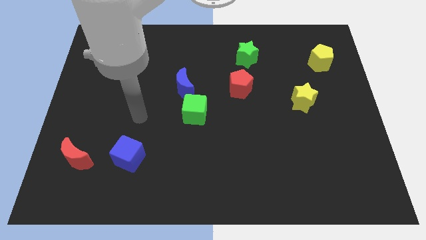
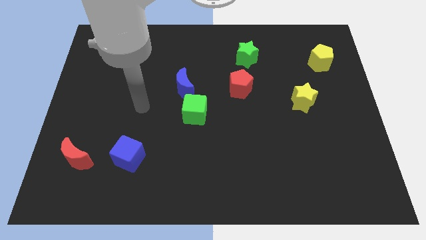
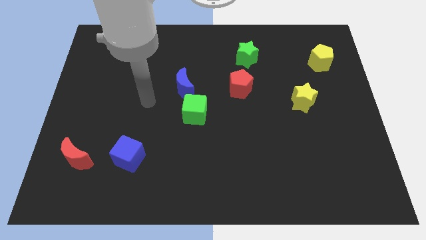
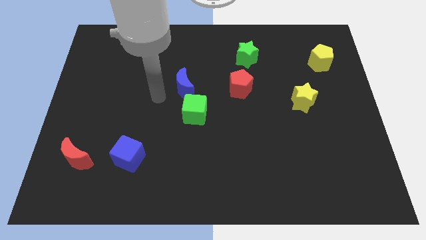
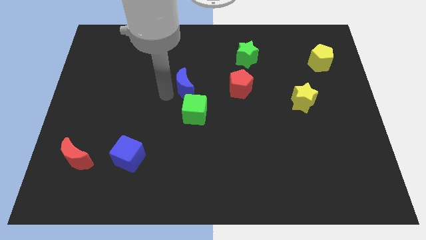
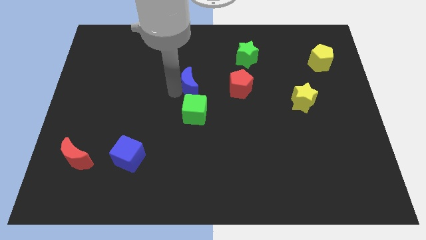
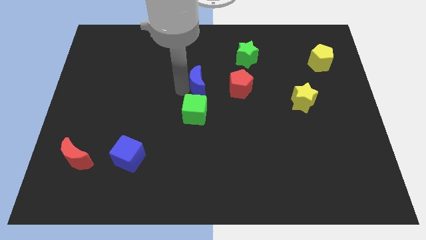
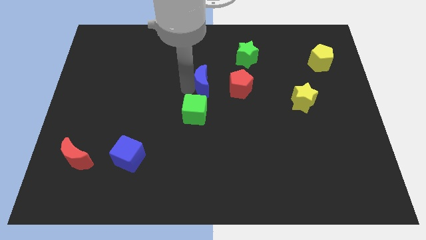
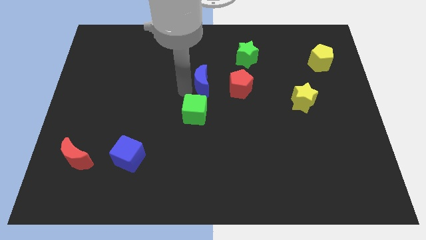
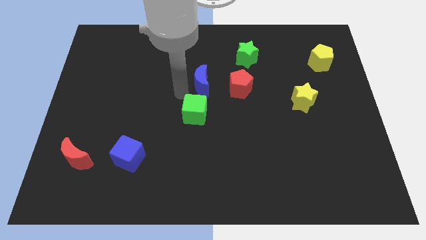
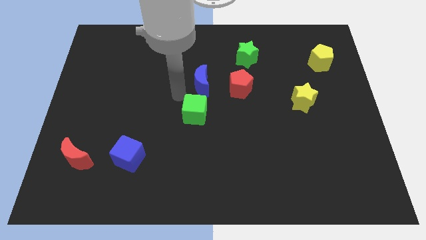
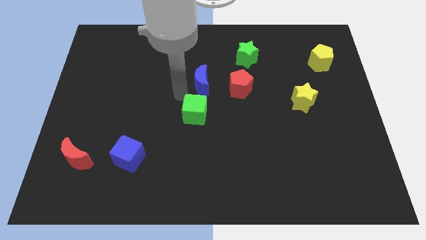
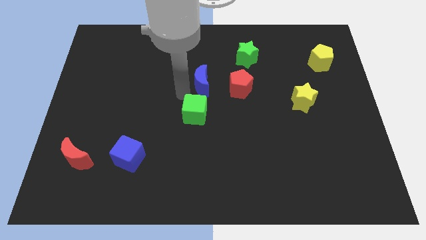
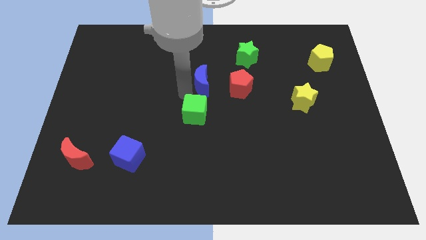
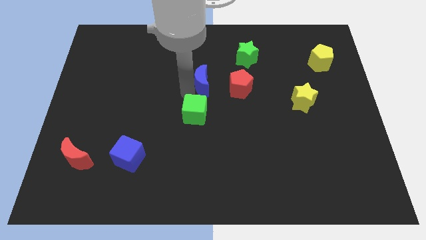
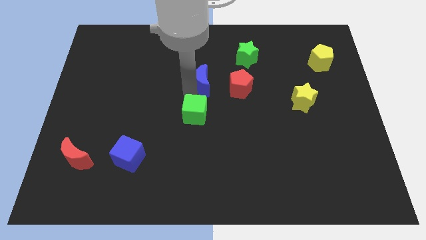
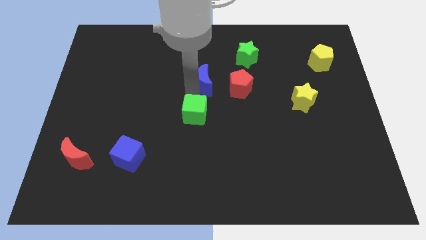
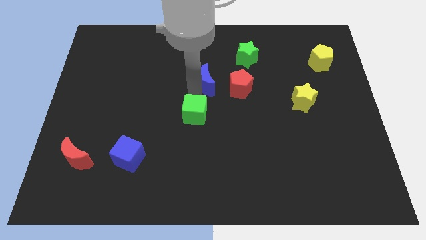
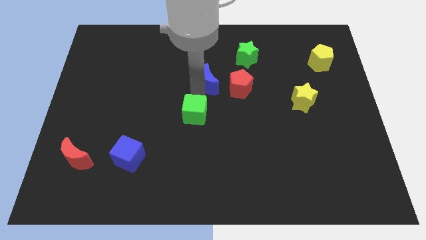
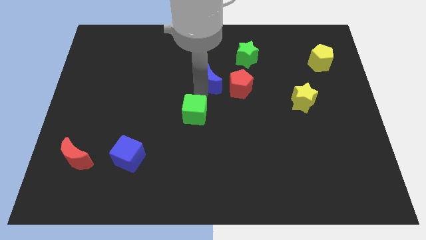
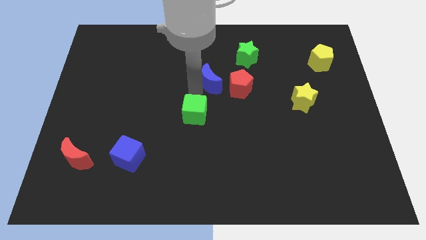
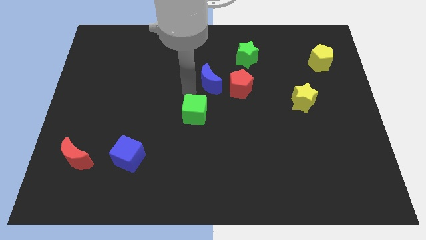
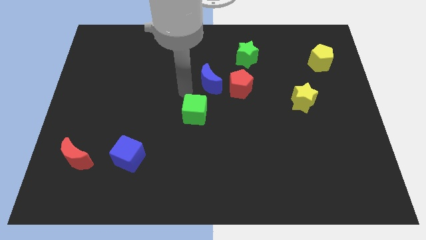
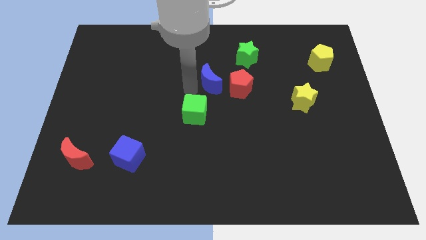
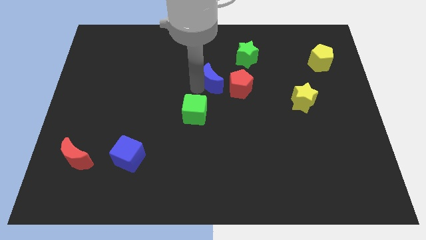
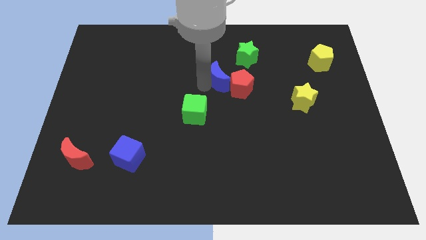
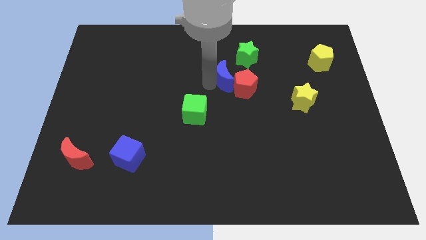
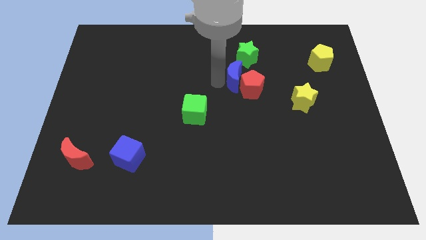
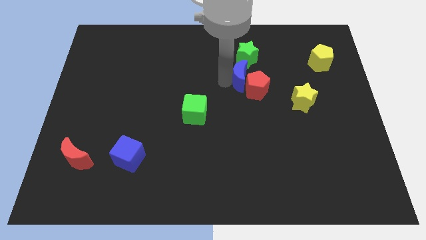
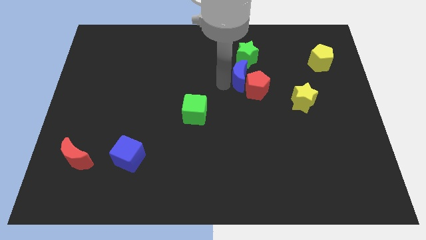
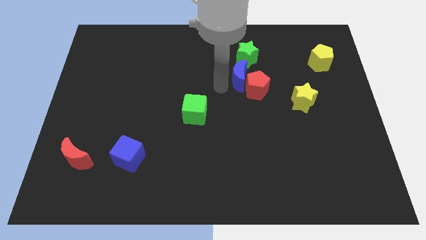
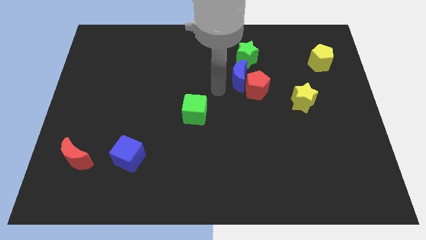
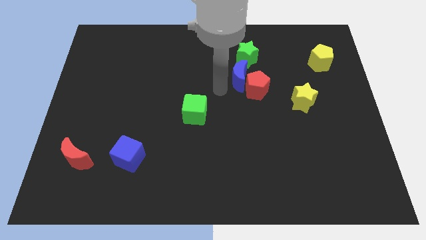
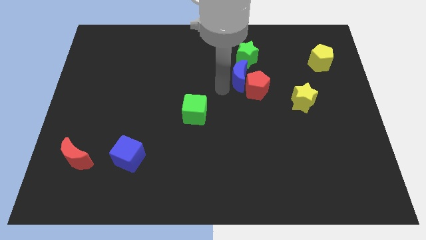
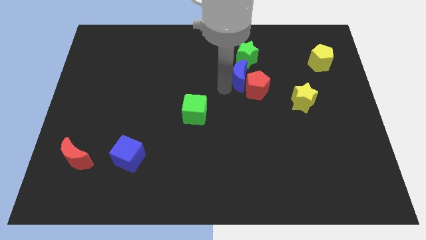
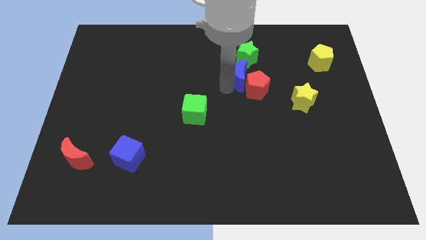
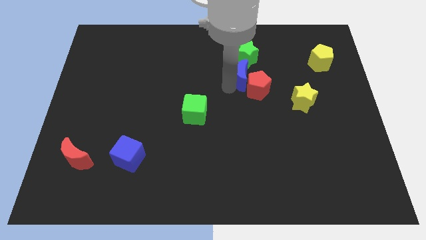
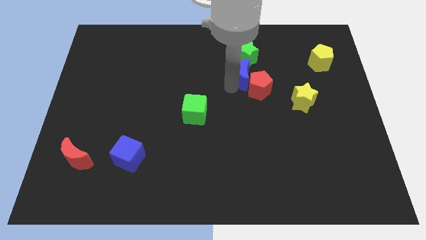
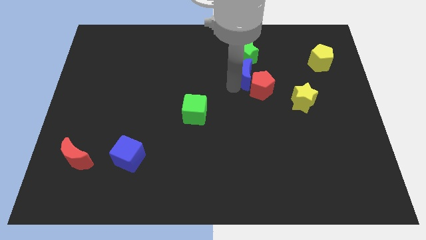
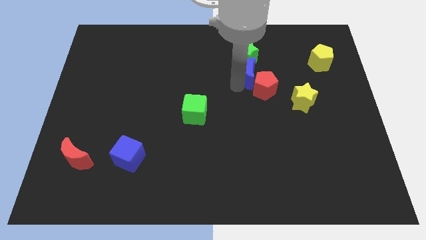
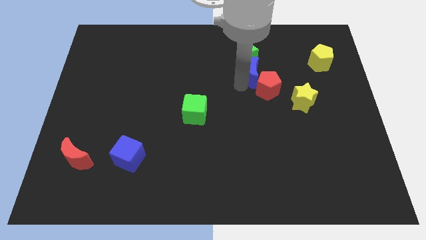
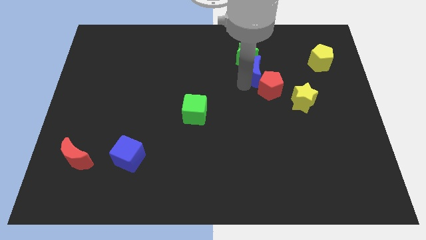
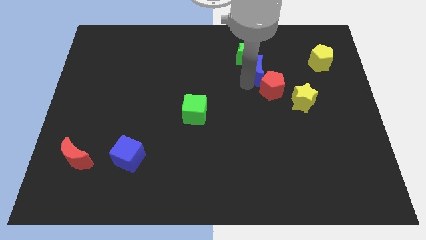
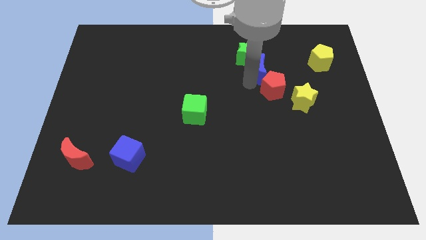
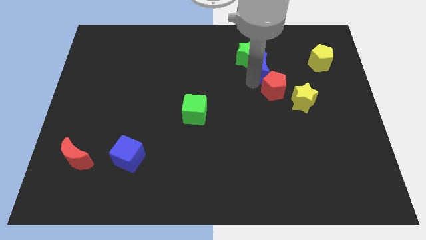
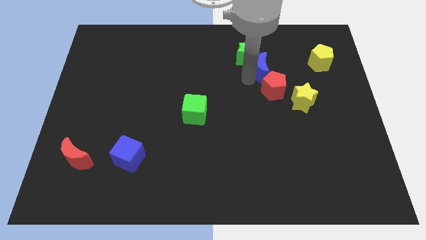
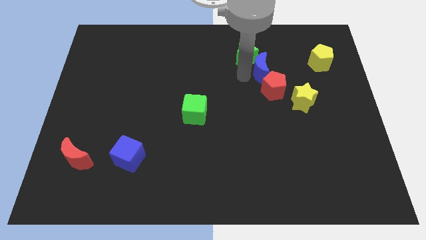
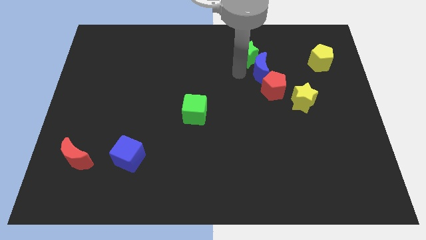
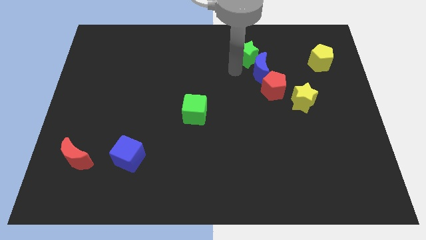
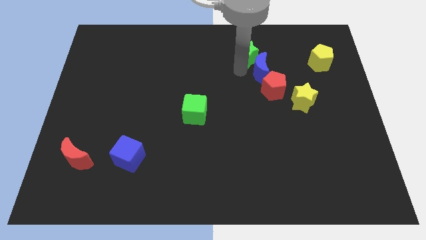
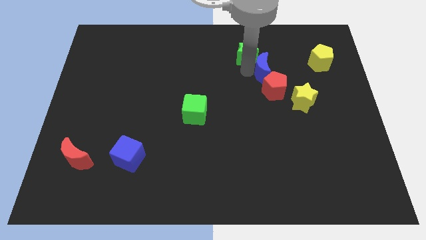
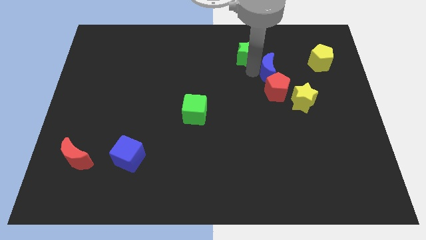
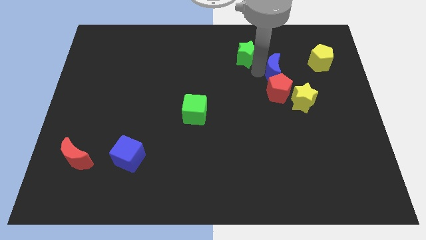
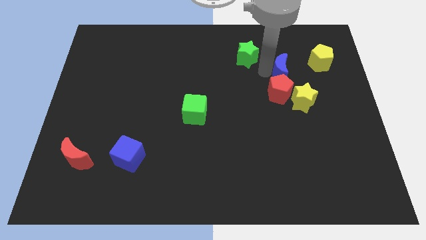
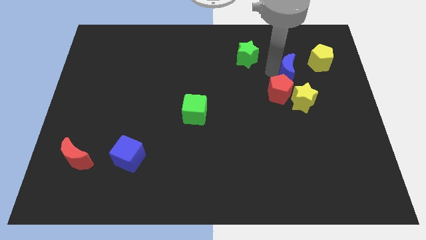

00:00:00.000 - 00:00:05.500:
push the blue moon to the bottom left side of the yellow pentagon

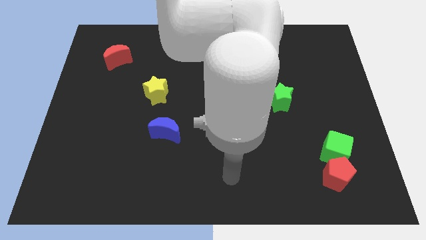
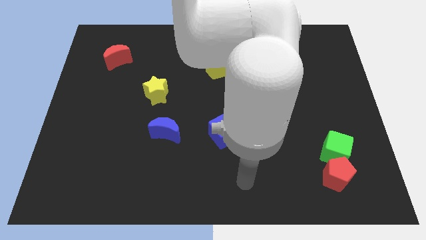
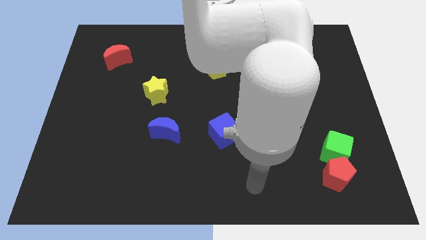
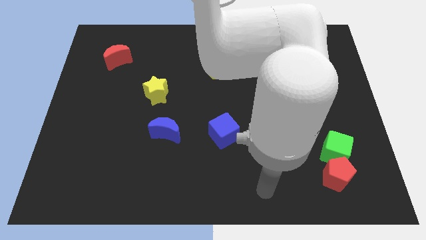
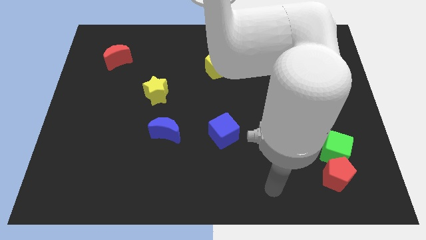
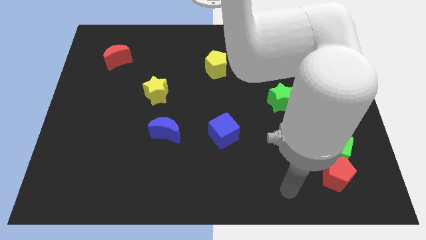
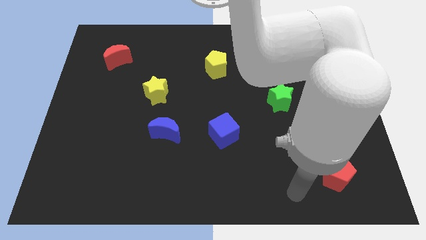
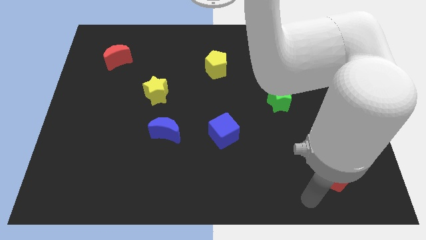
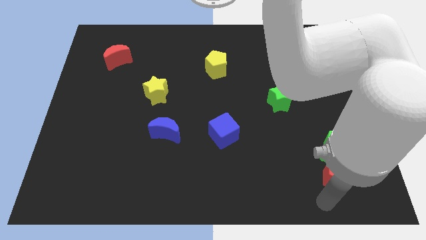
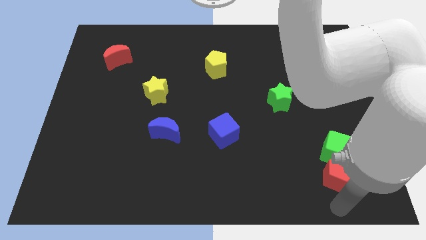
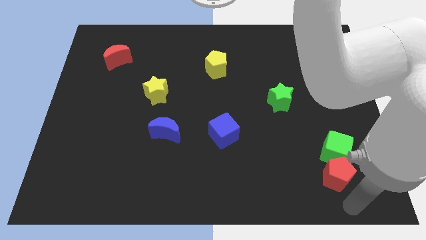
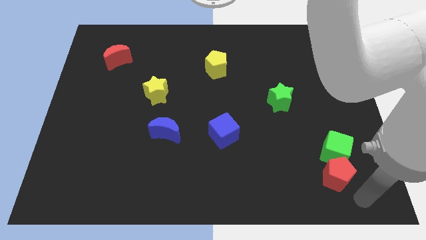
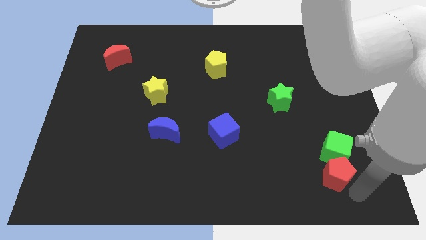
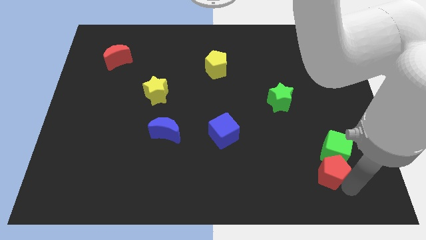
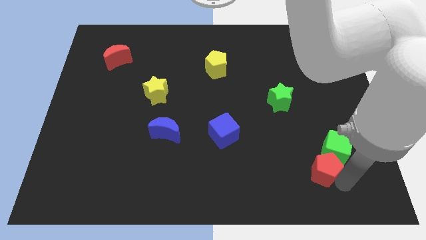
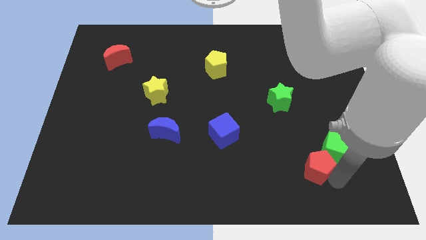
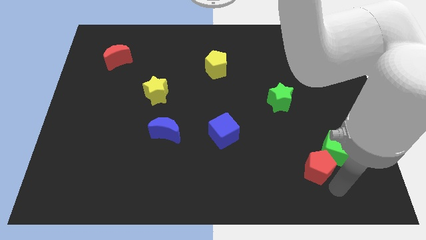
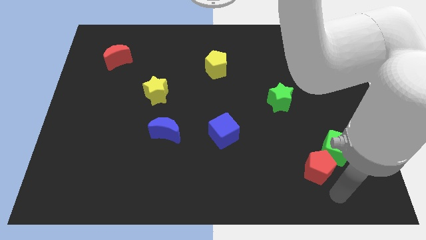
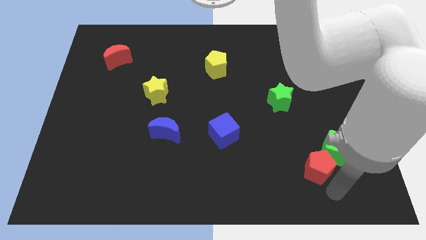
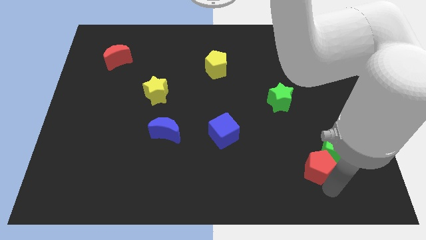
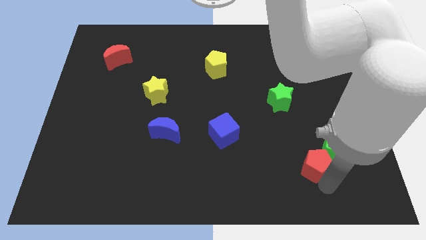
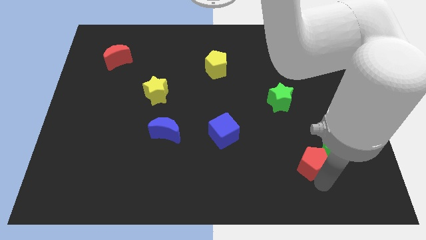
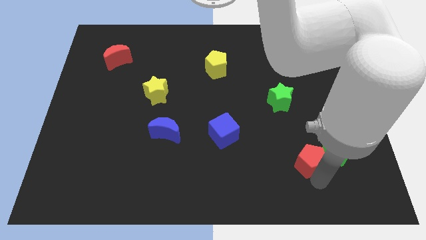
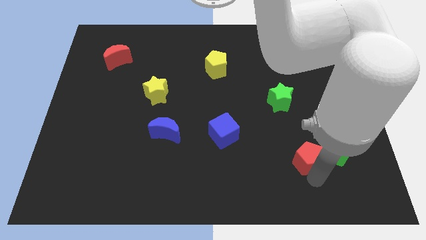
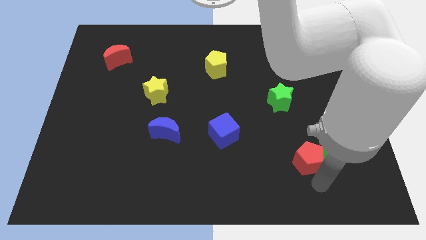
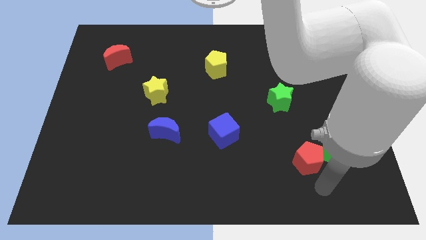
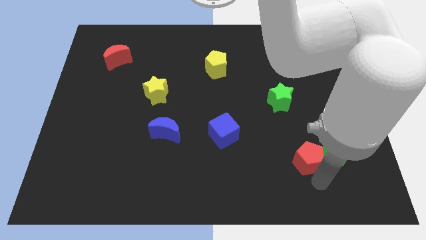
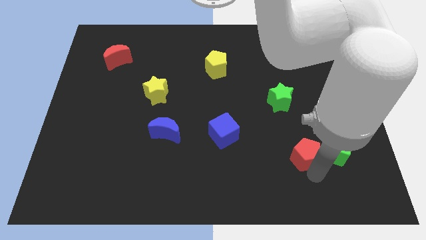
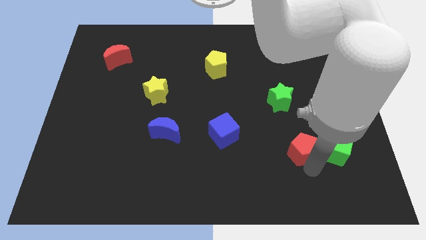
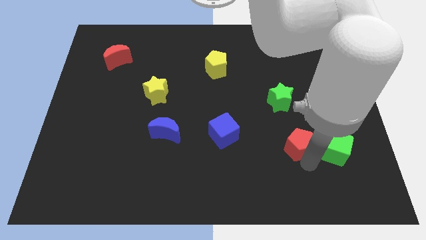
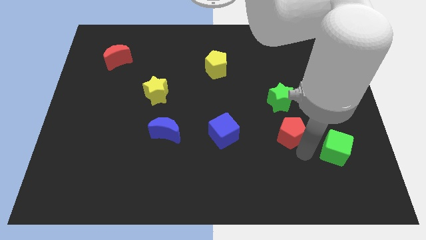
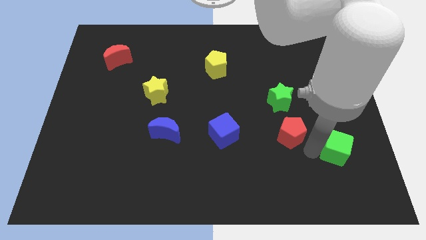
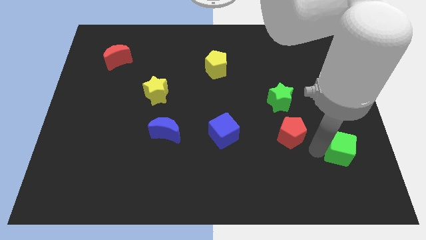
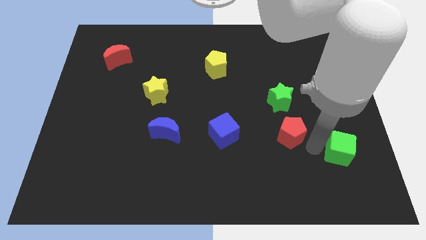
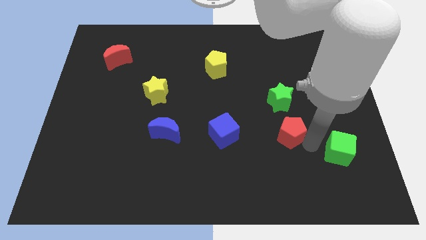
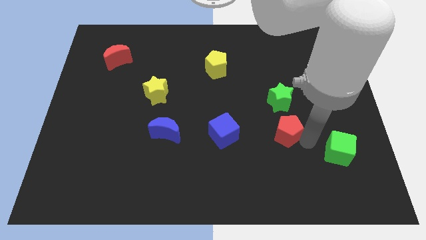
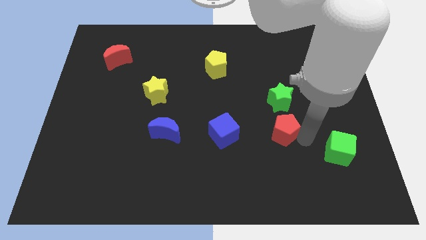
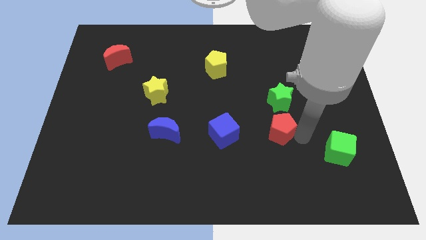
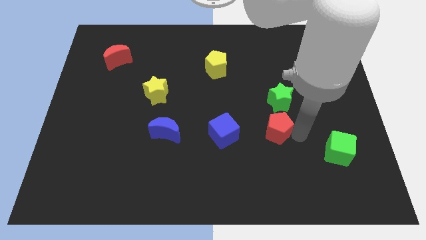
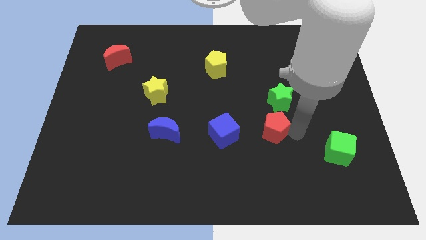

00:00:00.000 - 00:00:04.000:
slide the red pentagon to the bottom left side of the green star
